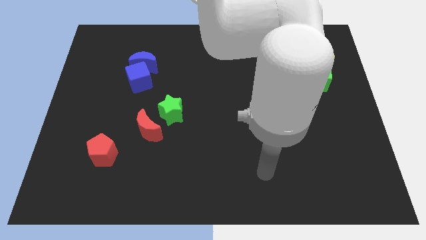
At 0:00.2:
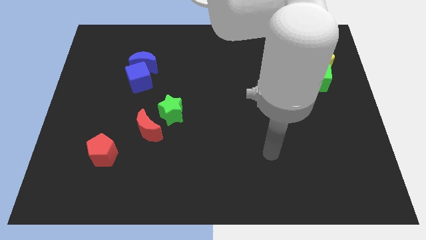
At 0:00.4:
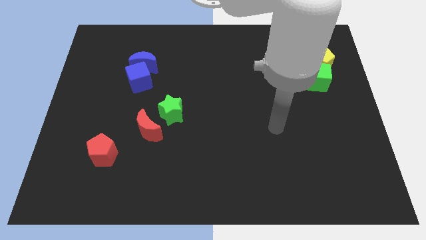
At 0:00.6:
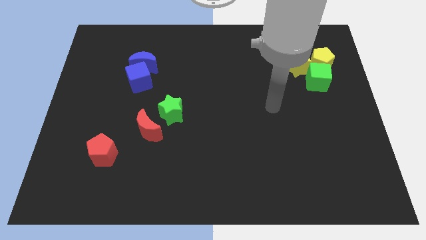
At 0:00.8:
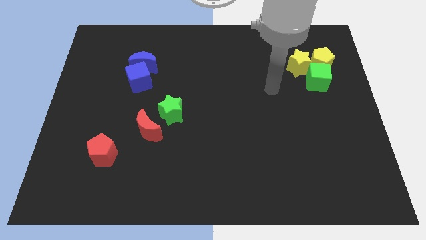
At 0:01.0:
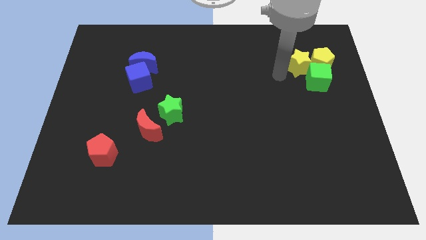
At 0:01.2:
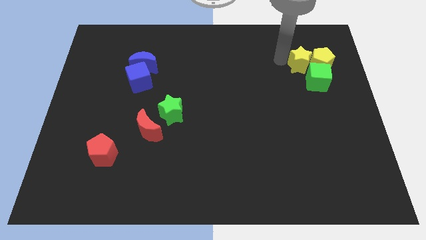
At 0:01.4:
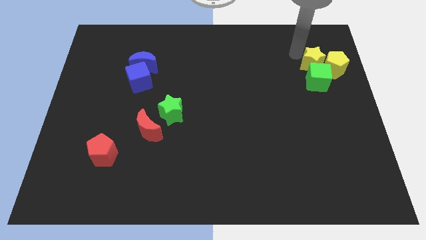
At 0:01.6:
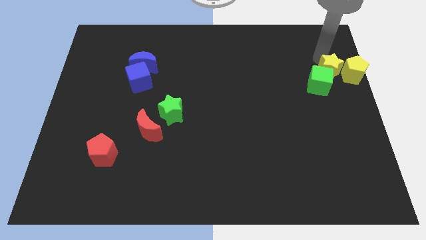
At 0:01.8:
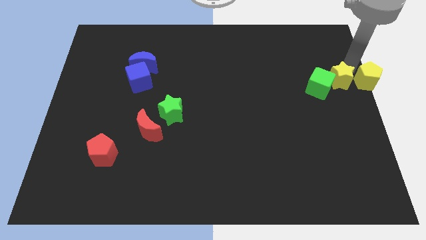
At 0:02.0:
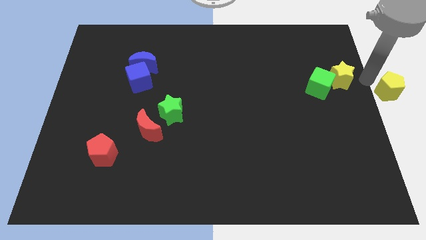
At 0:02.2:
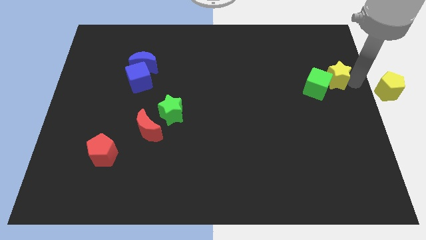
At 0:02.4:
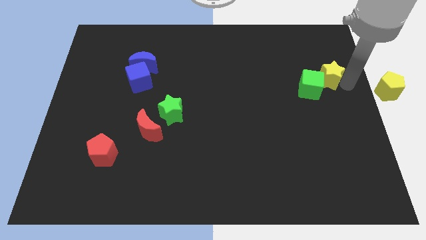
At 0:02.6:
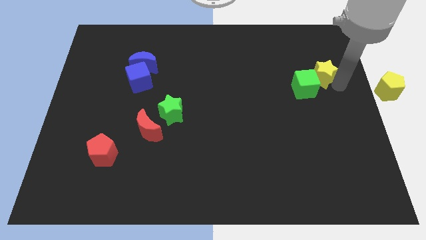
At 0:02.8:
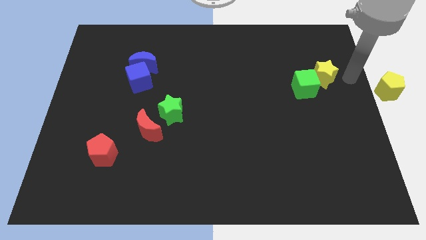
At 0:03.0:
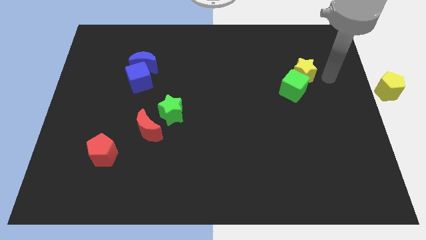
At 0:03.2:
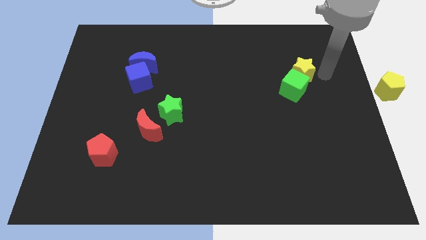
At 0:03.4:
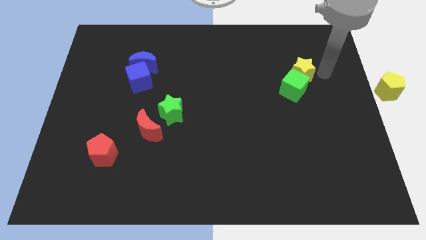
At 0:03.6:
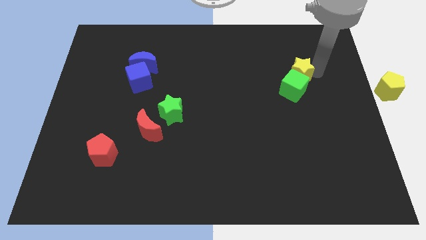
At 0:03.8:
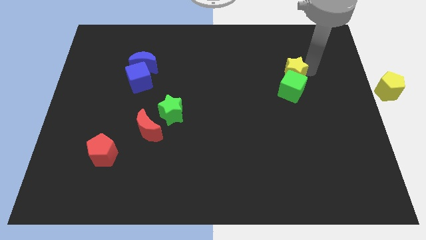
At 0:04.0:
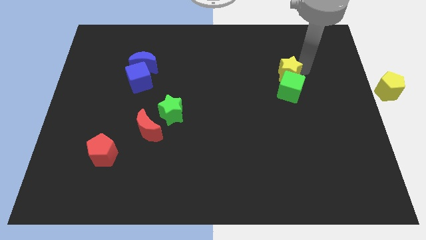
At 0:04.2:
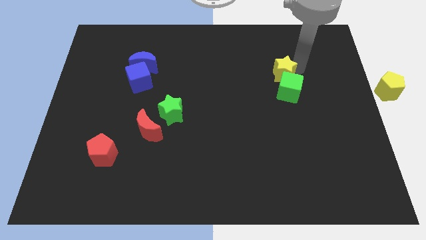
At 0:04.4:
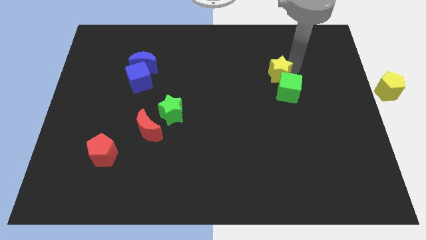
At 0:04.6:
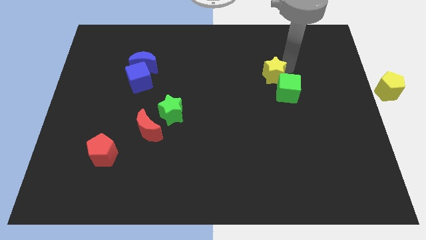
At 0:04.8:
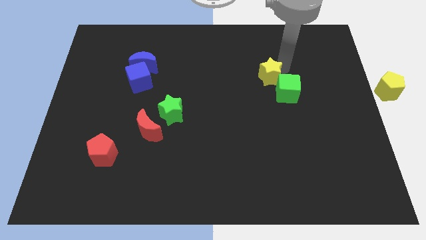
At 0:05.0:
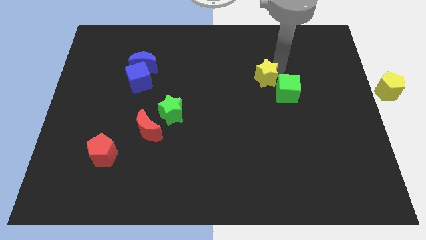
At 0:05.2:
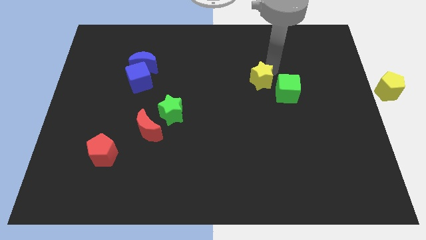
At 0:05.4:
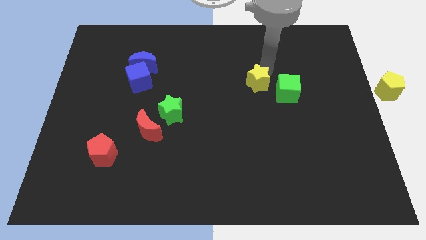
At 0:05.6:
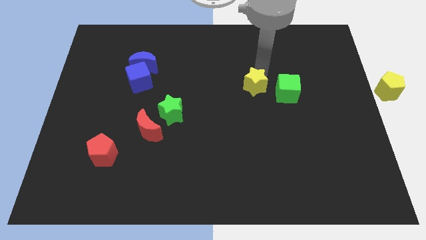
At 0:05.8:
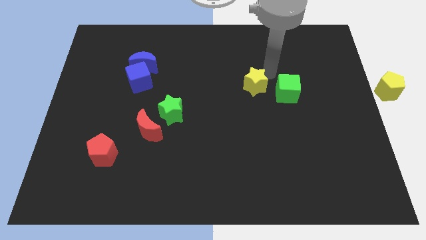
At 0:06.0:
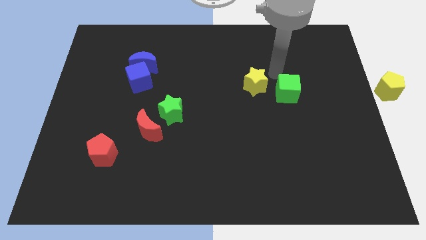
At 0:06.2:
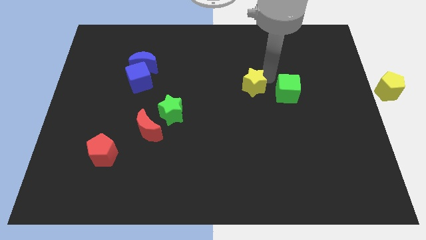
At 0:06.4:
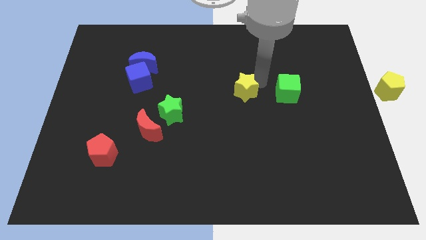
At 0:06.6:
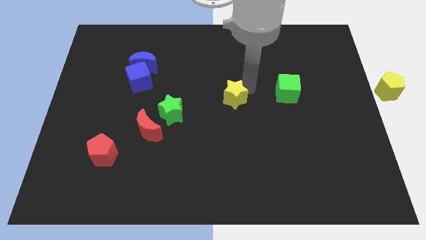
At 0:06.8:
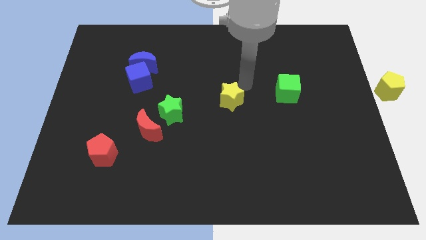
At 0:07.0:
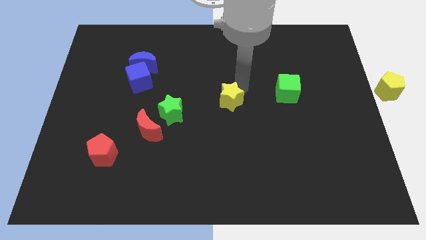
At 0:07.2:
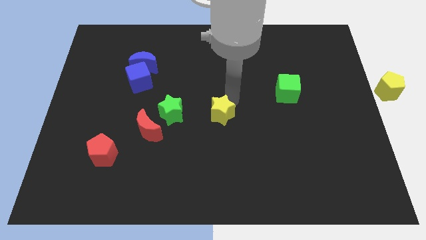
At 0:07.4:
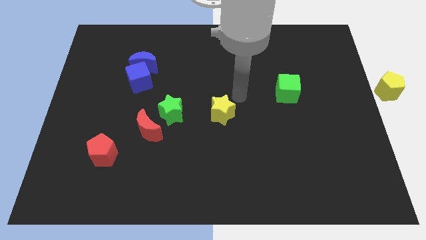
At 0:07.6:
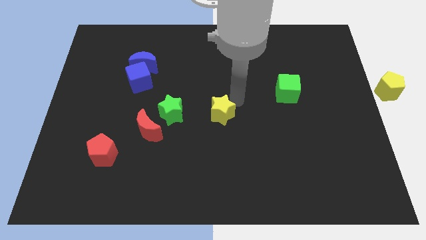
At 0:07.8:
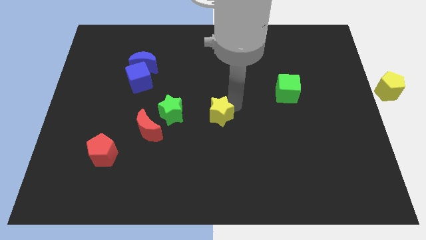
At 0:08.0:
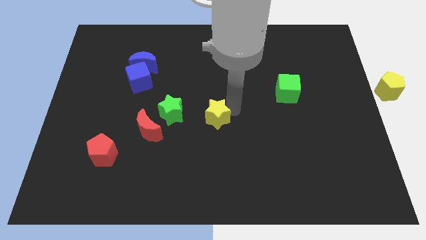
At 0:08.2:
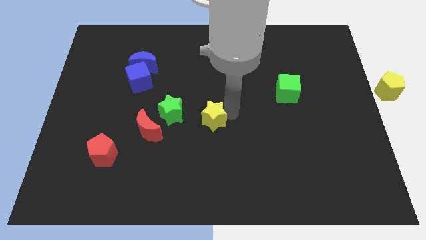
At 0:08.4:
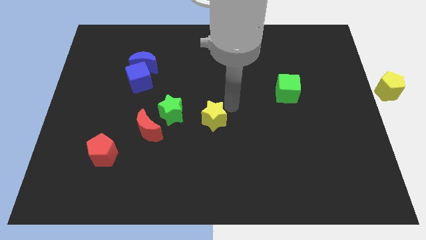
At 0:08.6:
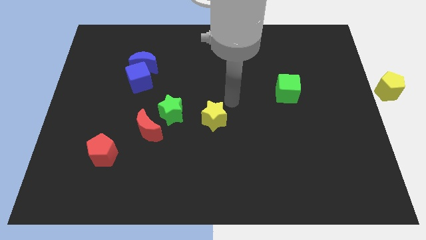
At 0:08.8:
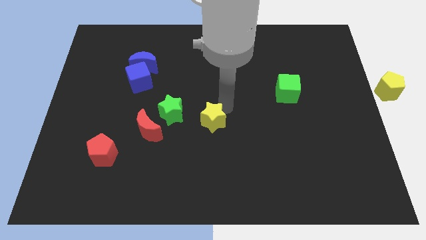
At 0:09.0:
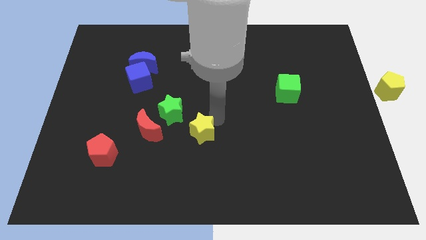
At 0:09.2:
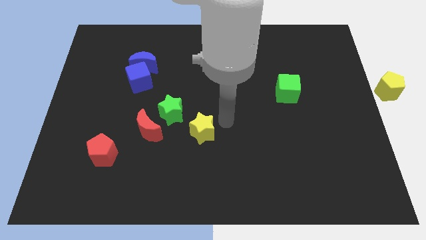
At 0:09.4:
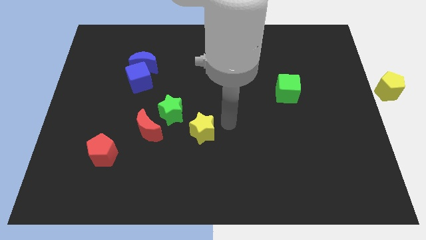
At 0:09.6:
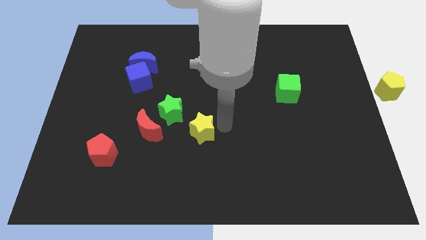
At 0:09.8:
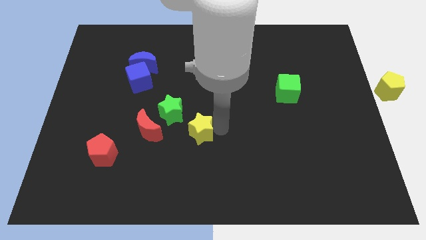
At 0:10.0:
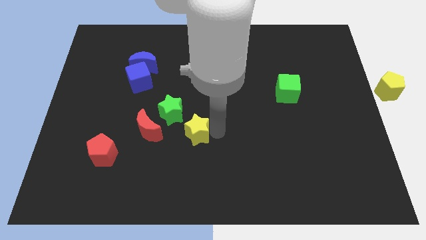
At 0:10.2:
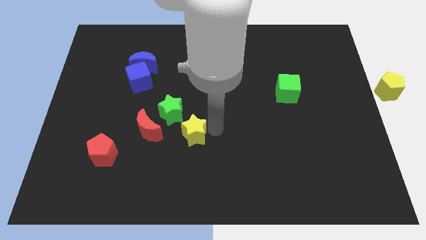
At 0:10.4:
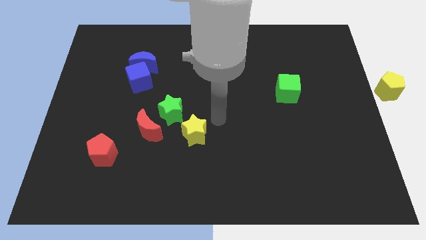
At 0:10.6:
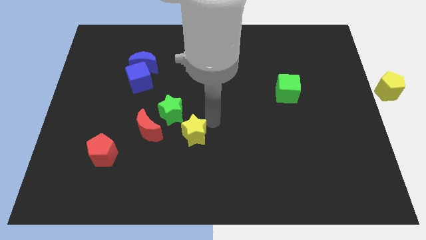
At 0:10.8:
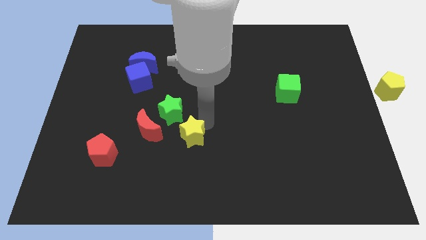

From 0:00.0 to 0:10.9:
move the yellow star to the bottom side of the green star

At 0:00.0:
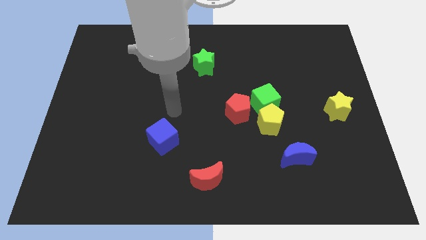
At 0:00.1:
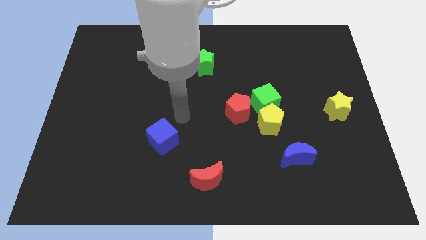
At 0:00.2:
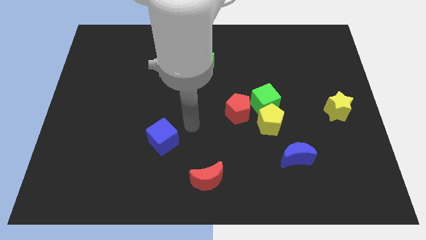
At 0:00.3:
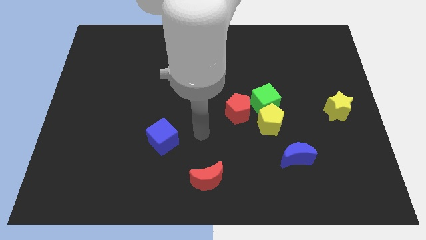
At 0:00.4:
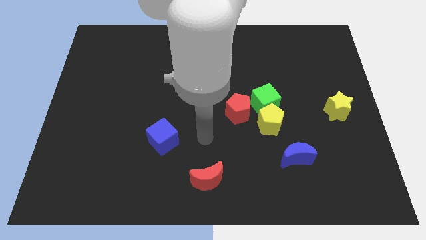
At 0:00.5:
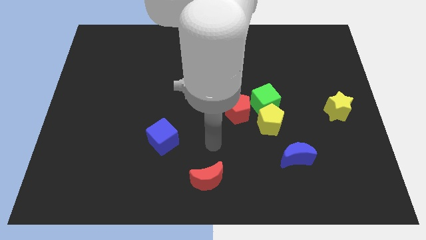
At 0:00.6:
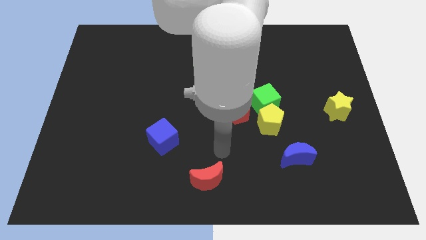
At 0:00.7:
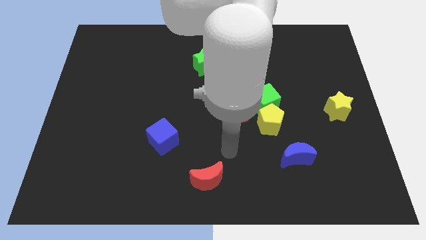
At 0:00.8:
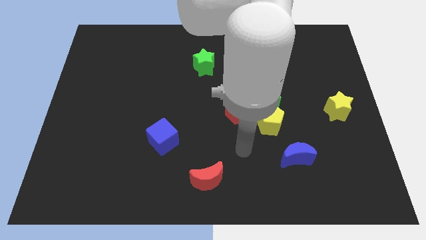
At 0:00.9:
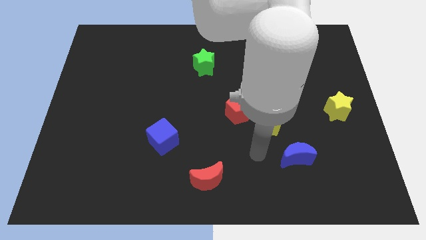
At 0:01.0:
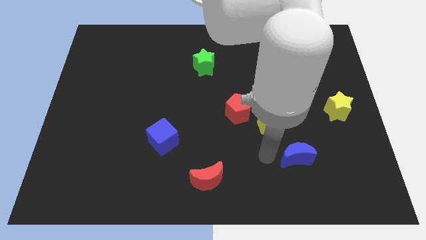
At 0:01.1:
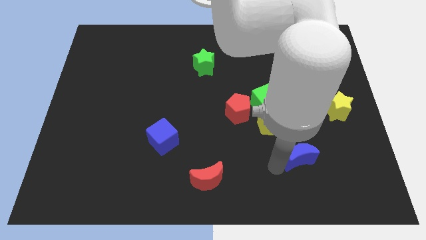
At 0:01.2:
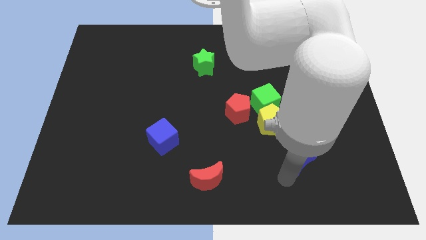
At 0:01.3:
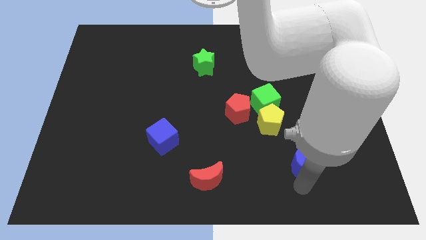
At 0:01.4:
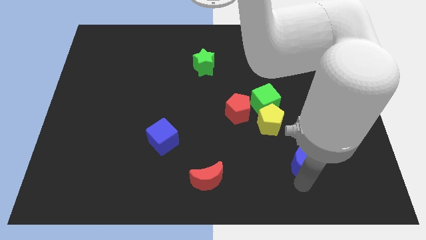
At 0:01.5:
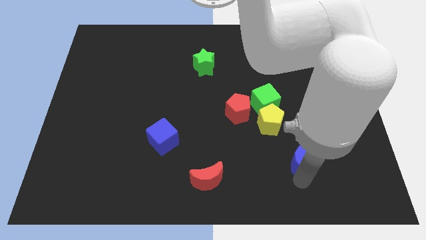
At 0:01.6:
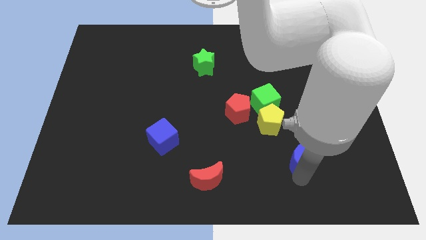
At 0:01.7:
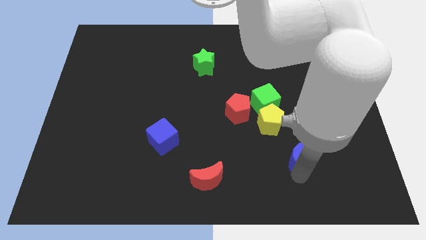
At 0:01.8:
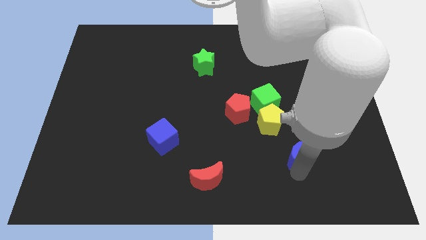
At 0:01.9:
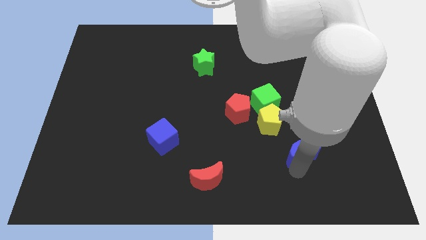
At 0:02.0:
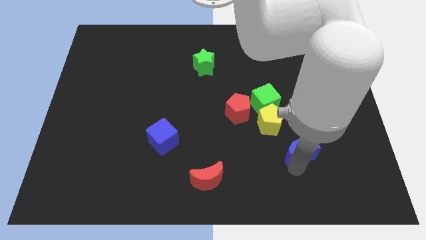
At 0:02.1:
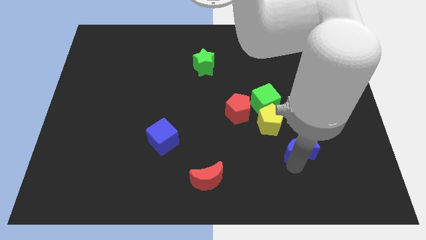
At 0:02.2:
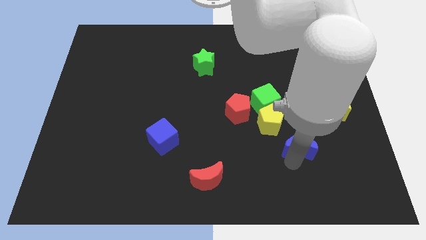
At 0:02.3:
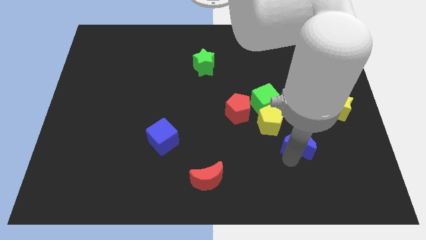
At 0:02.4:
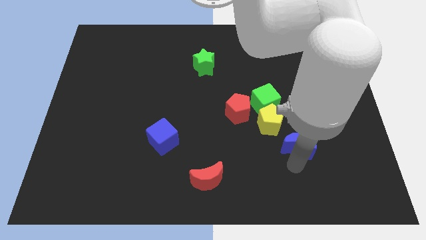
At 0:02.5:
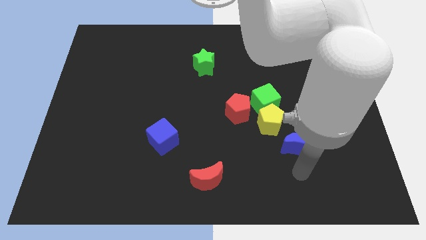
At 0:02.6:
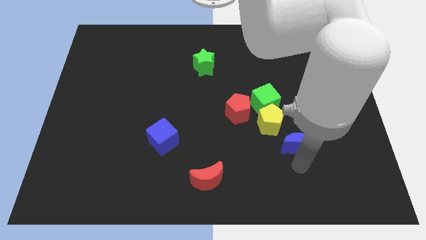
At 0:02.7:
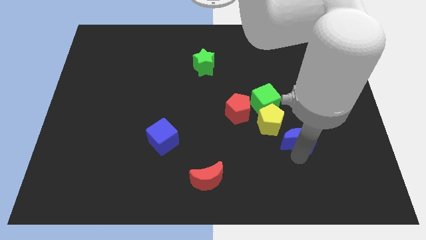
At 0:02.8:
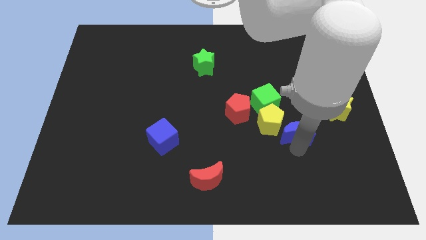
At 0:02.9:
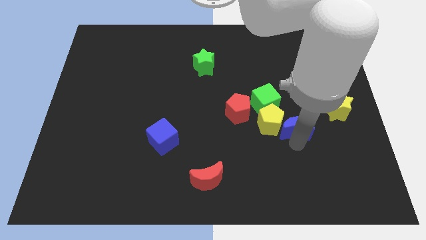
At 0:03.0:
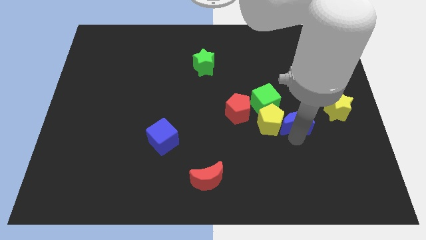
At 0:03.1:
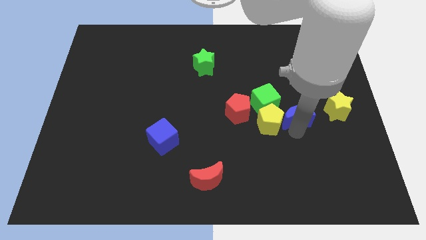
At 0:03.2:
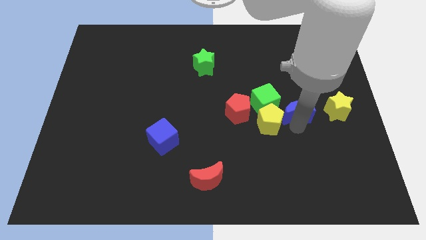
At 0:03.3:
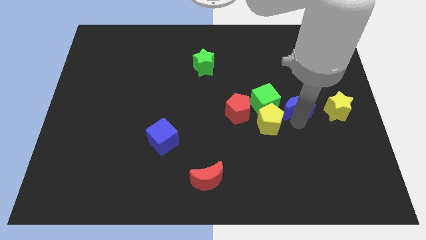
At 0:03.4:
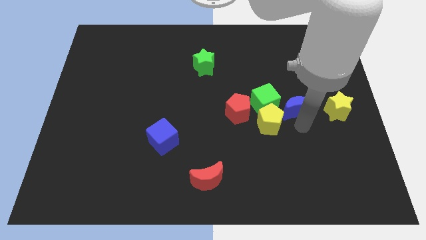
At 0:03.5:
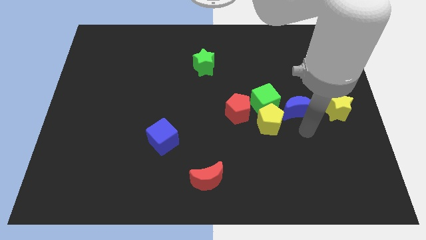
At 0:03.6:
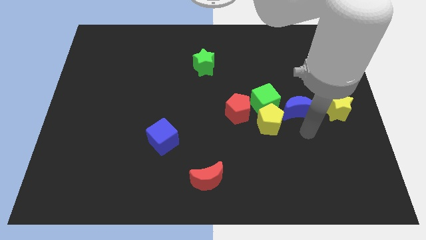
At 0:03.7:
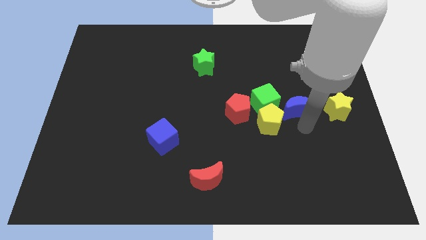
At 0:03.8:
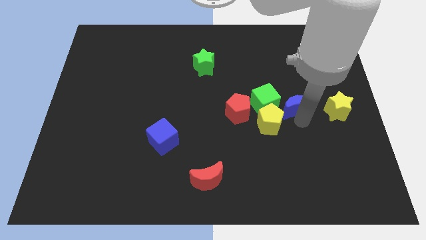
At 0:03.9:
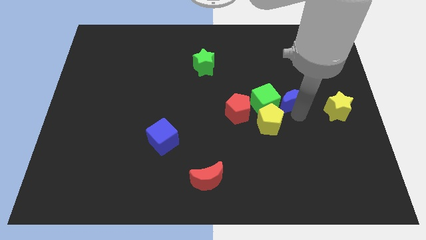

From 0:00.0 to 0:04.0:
push the blue moon to the top right side of the green cube
